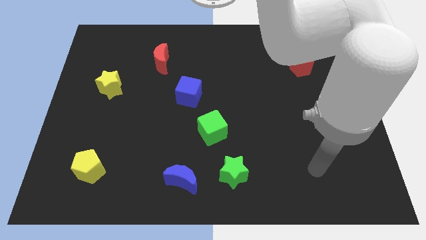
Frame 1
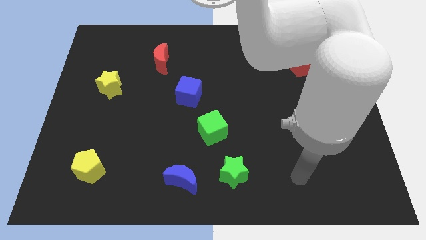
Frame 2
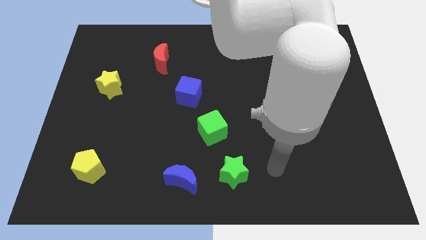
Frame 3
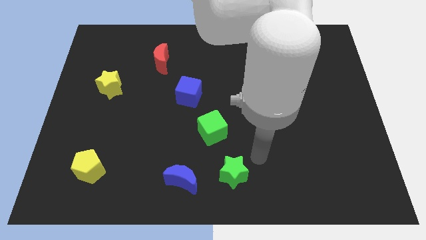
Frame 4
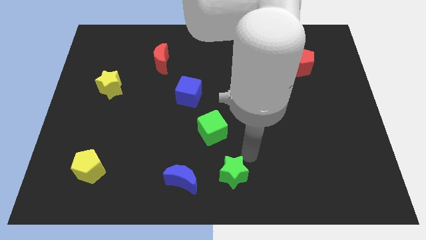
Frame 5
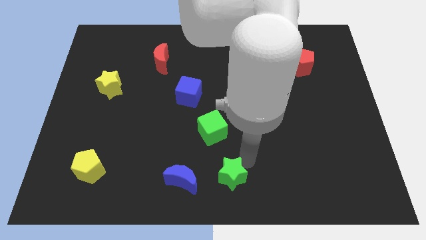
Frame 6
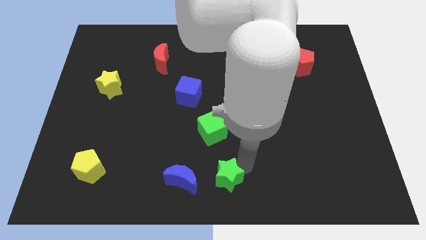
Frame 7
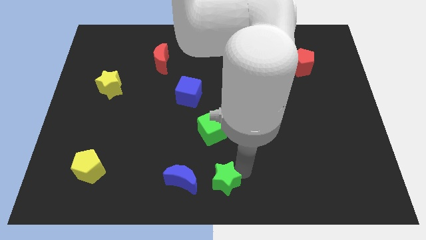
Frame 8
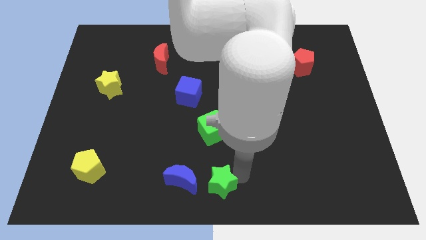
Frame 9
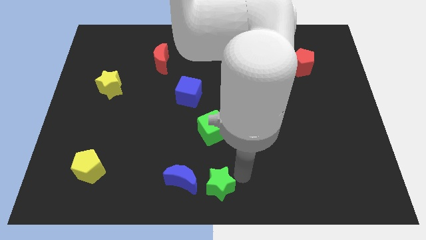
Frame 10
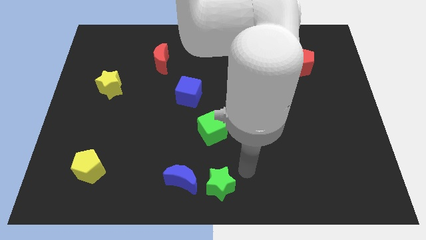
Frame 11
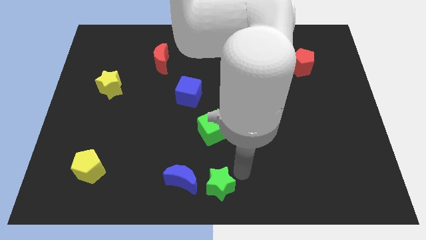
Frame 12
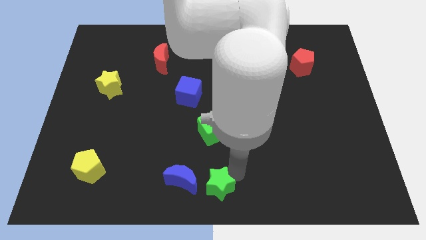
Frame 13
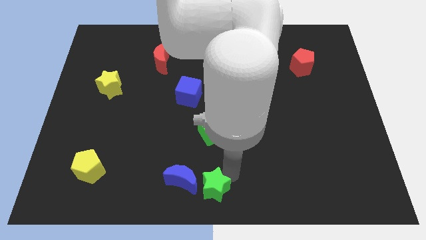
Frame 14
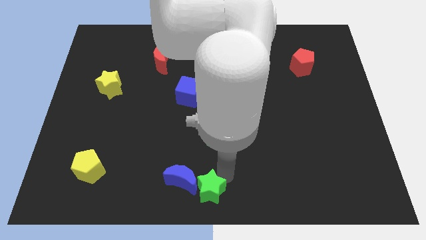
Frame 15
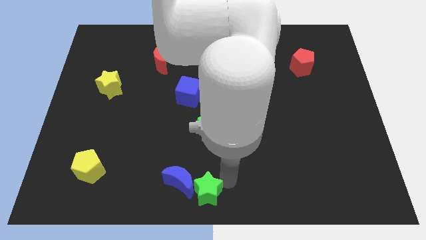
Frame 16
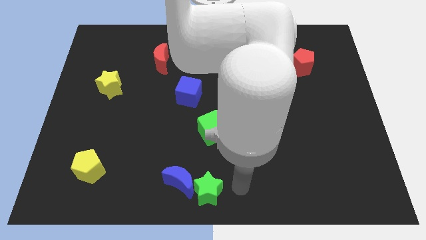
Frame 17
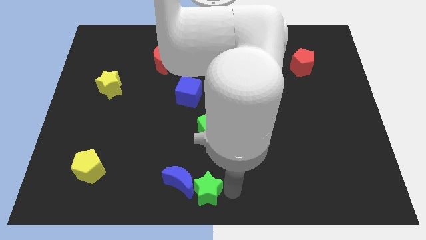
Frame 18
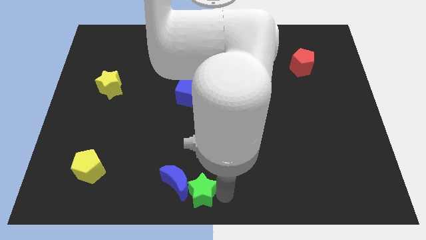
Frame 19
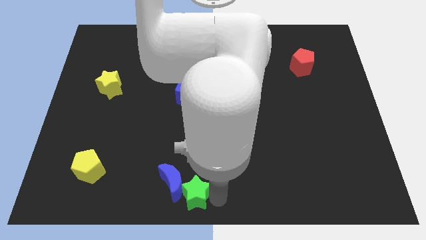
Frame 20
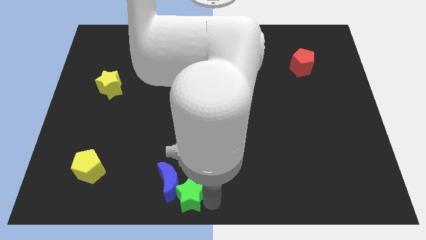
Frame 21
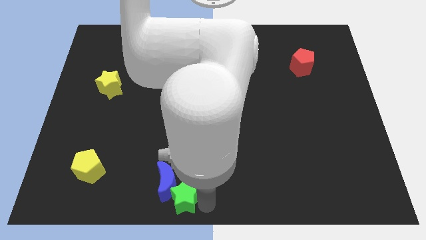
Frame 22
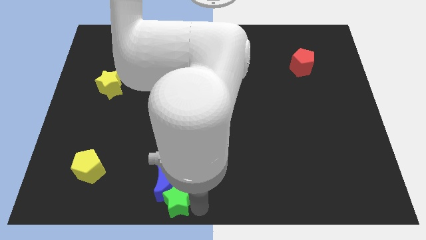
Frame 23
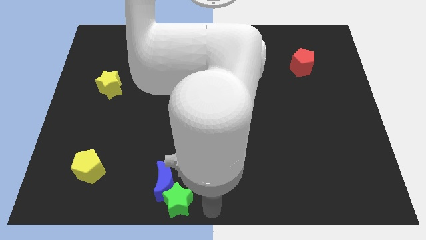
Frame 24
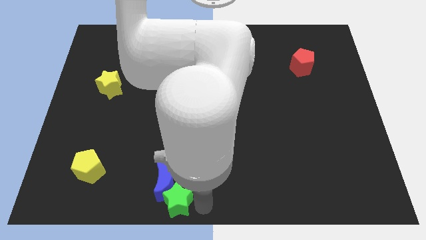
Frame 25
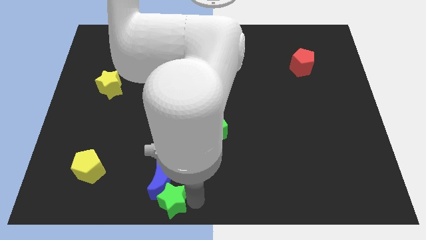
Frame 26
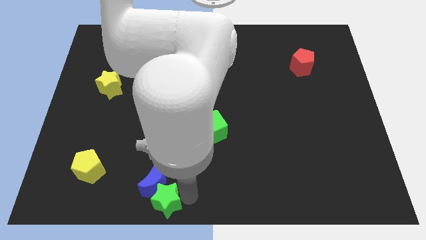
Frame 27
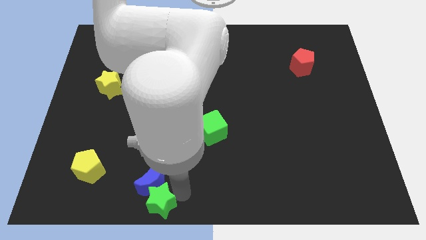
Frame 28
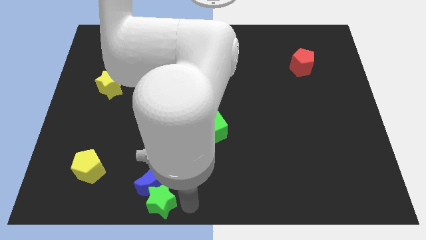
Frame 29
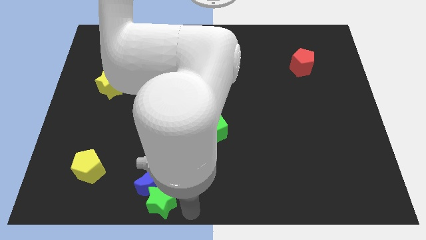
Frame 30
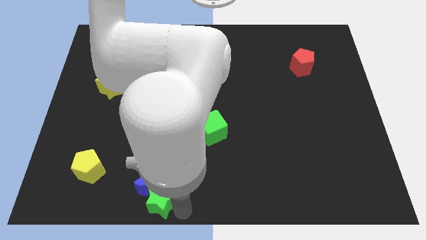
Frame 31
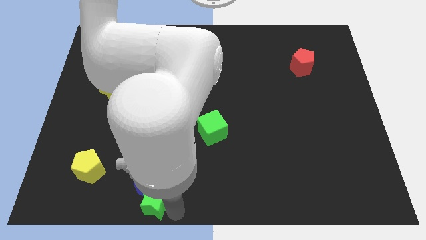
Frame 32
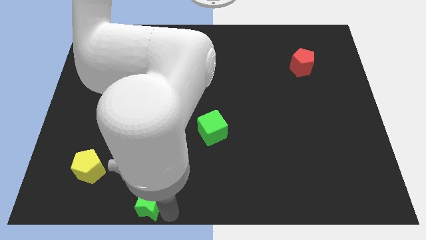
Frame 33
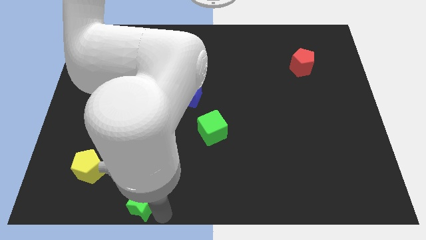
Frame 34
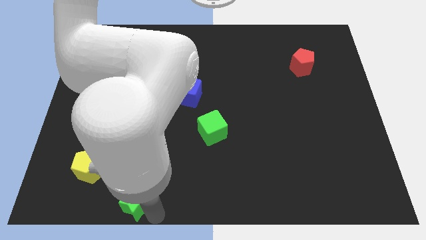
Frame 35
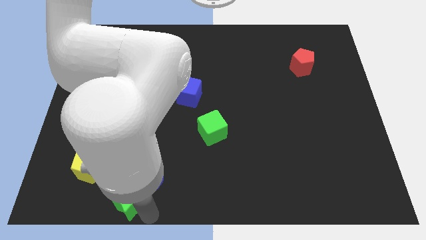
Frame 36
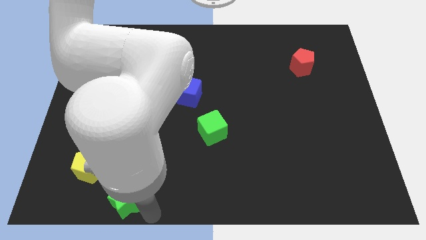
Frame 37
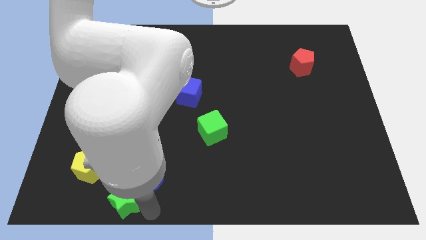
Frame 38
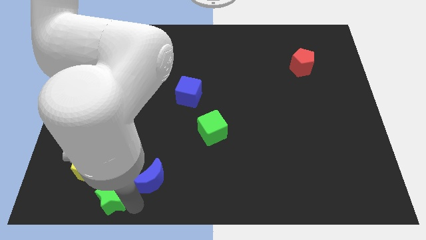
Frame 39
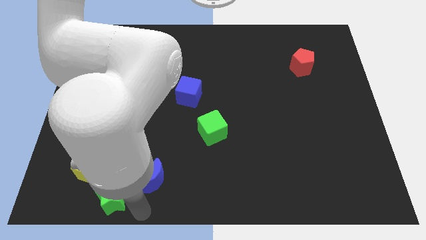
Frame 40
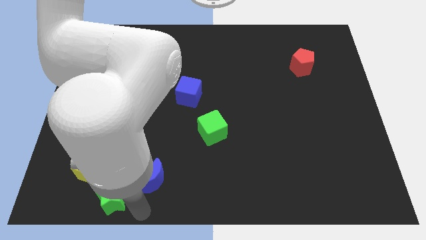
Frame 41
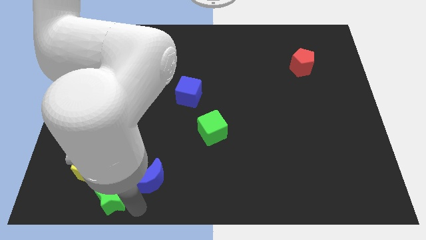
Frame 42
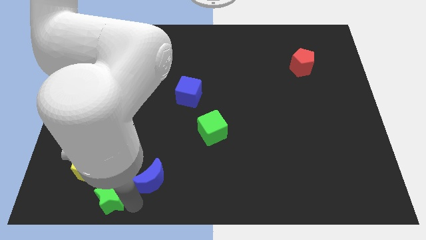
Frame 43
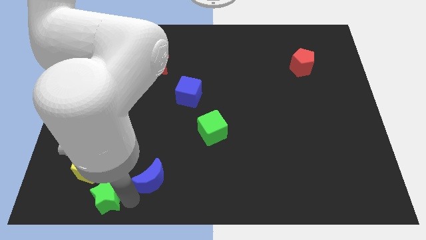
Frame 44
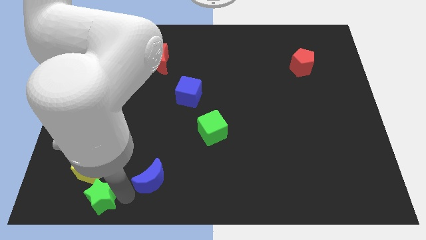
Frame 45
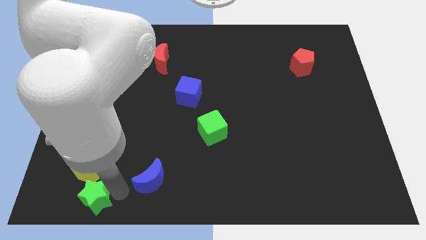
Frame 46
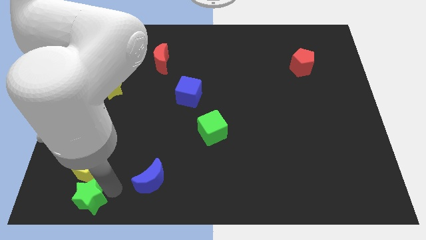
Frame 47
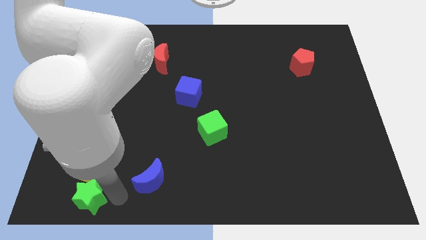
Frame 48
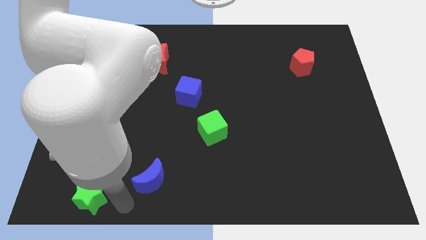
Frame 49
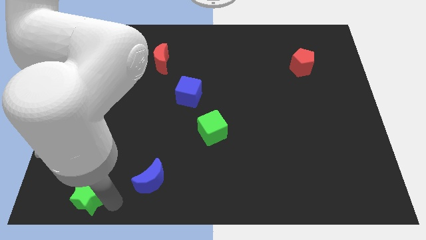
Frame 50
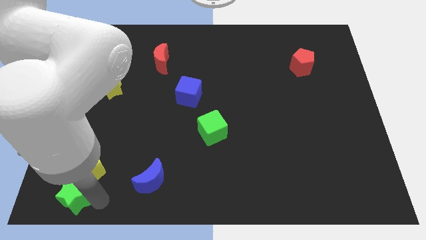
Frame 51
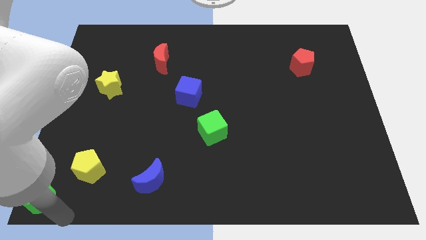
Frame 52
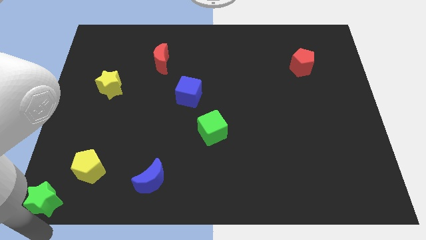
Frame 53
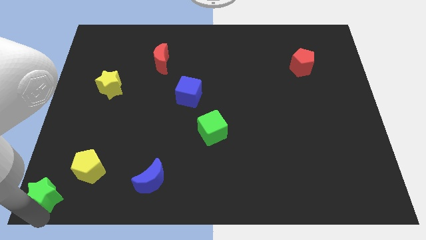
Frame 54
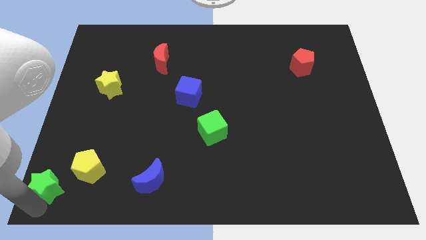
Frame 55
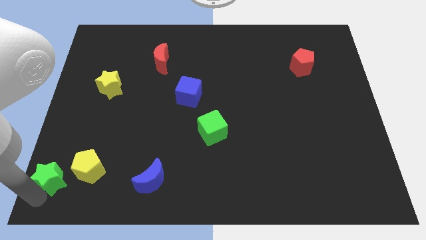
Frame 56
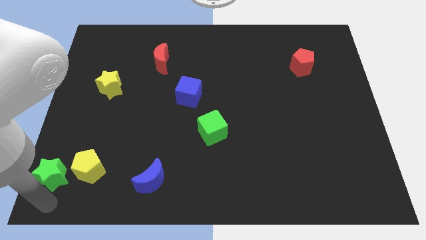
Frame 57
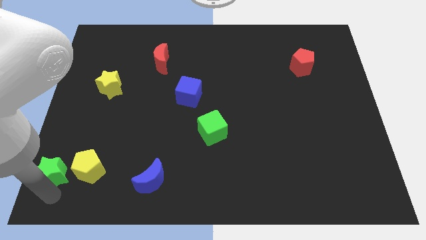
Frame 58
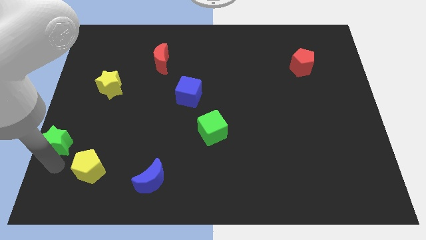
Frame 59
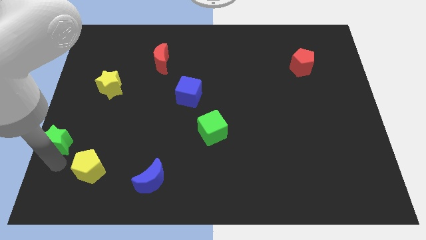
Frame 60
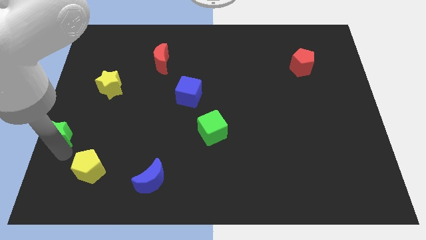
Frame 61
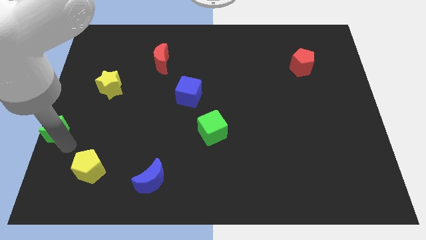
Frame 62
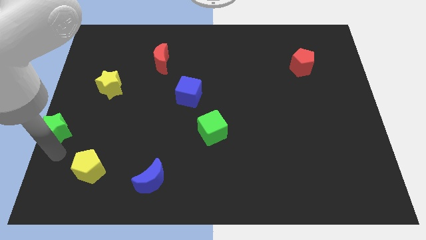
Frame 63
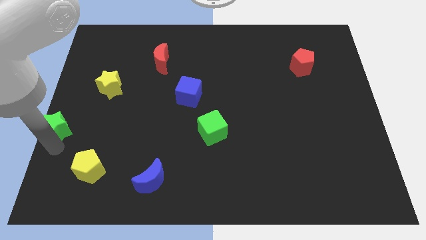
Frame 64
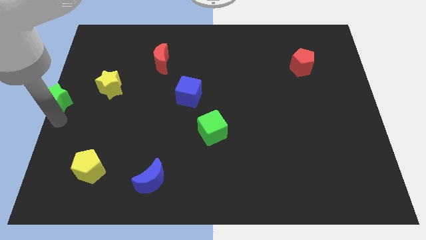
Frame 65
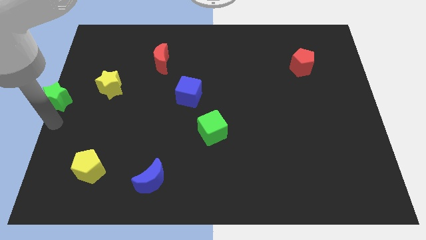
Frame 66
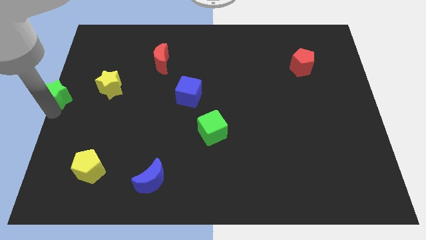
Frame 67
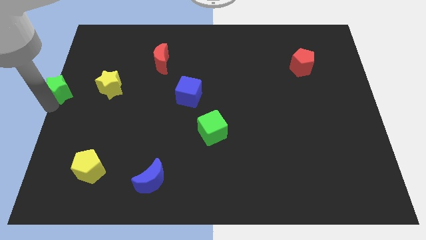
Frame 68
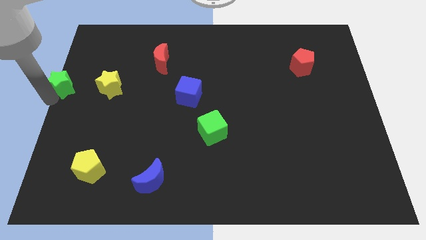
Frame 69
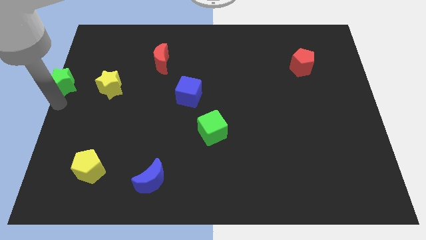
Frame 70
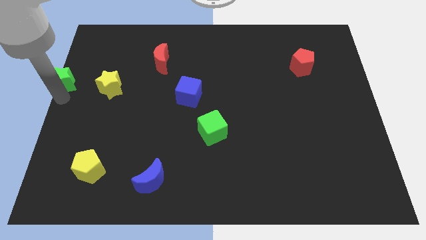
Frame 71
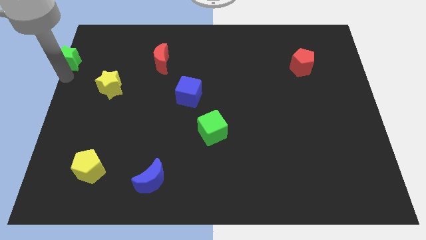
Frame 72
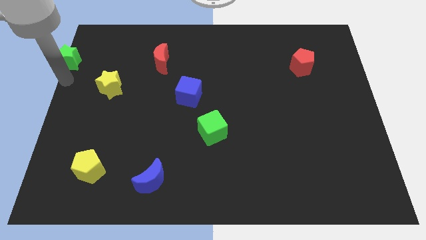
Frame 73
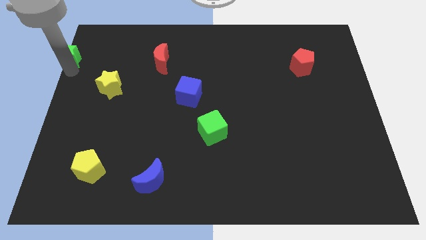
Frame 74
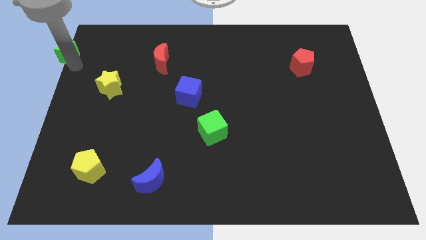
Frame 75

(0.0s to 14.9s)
slide the green star to the top left corner
